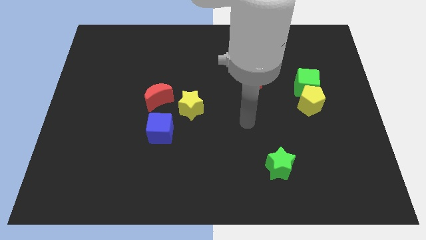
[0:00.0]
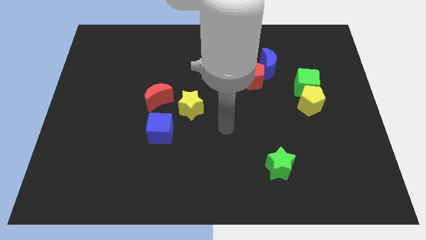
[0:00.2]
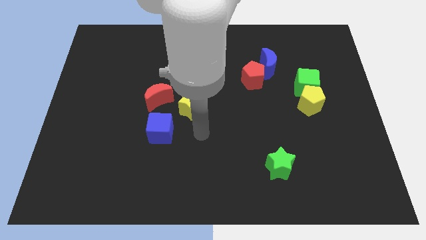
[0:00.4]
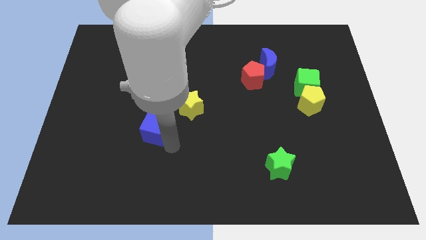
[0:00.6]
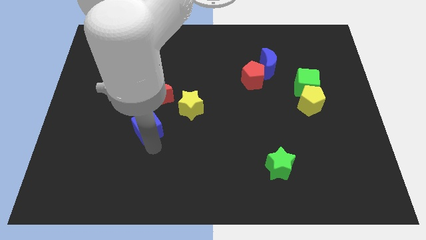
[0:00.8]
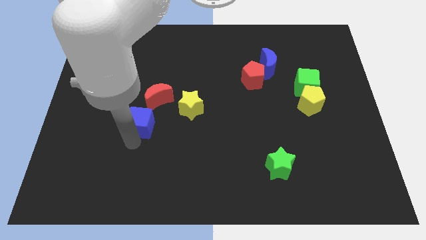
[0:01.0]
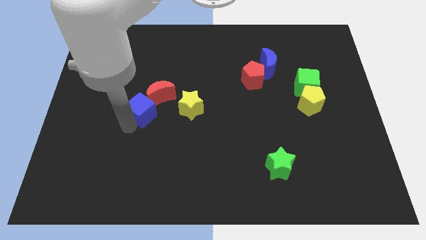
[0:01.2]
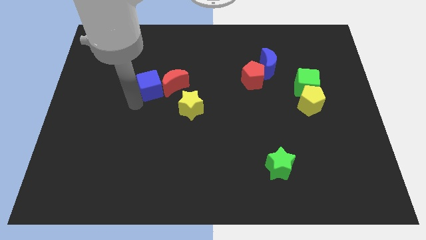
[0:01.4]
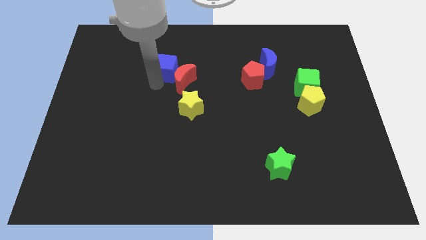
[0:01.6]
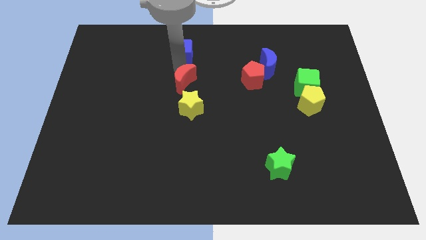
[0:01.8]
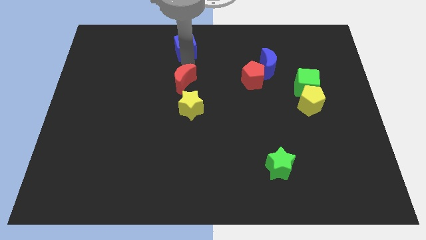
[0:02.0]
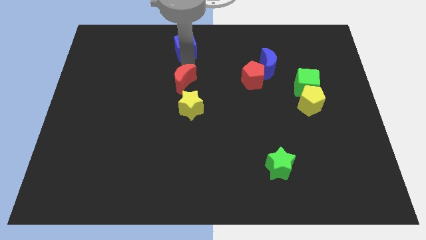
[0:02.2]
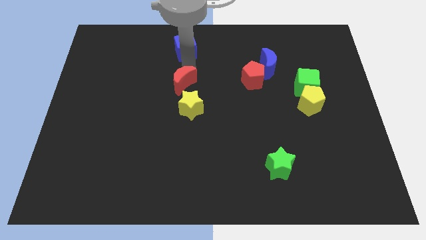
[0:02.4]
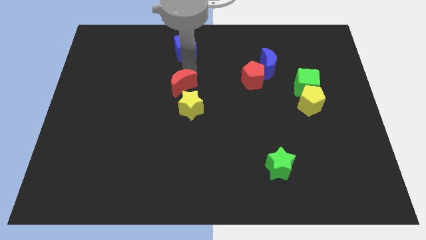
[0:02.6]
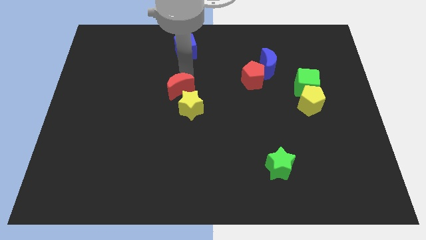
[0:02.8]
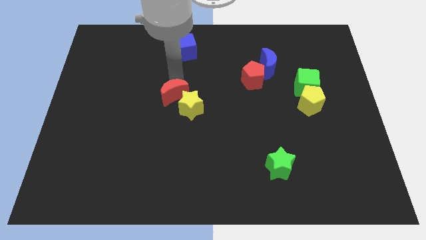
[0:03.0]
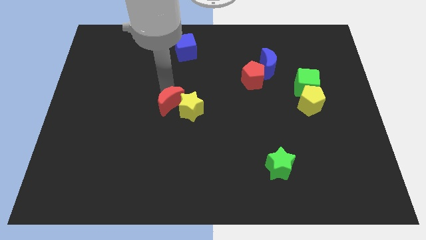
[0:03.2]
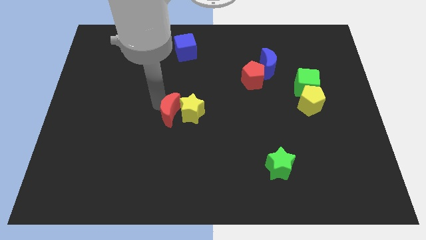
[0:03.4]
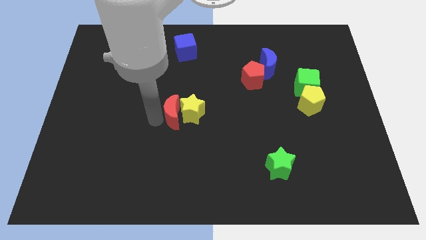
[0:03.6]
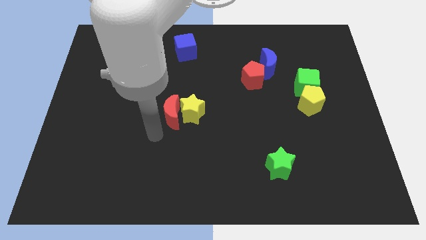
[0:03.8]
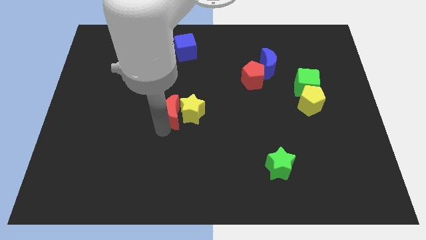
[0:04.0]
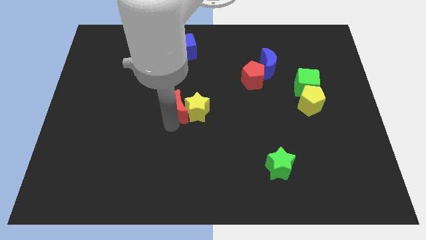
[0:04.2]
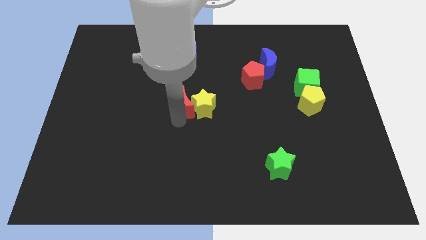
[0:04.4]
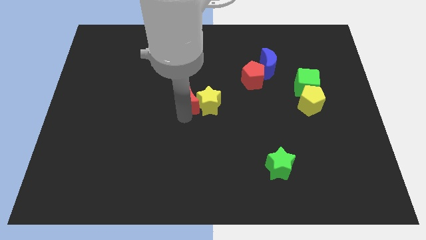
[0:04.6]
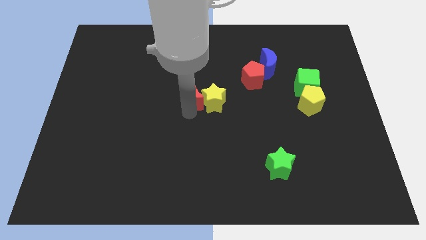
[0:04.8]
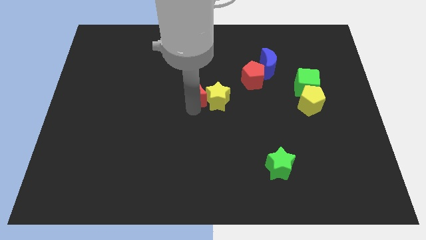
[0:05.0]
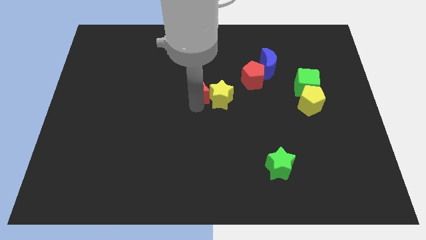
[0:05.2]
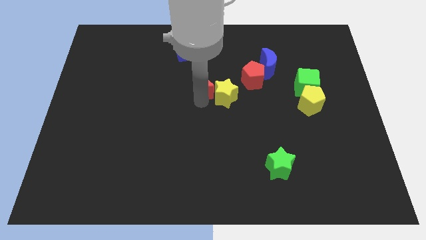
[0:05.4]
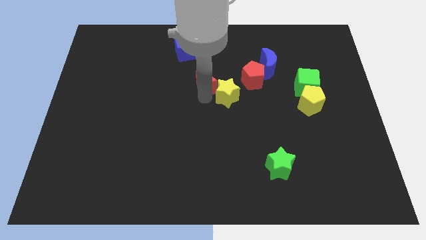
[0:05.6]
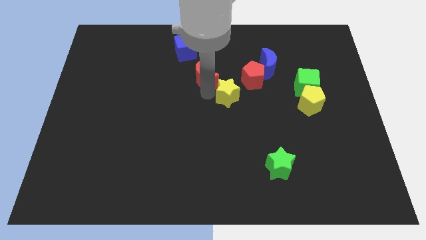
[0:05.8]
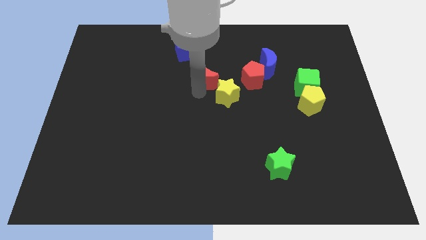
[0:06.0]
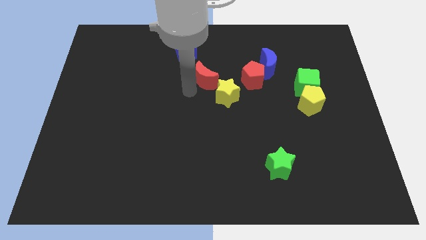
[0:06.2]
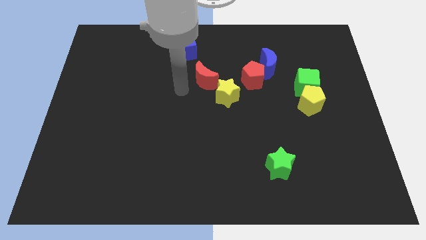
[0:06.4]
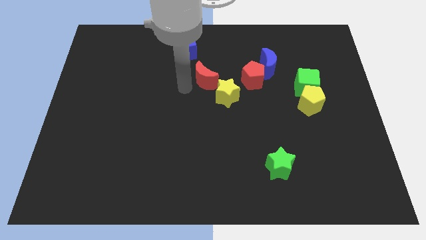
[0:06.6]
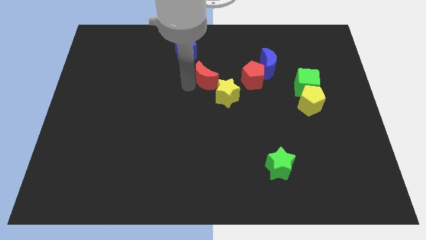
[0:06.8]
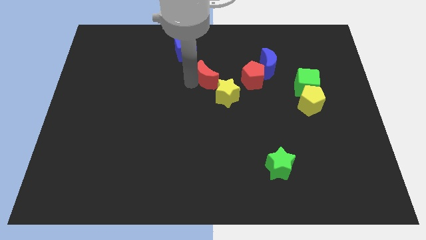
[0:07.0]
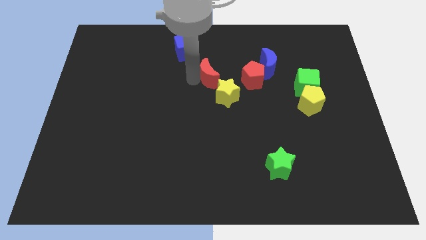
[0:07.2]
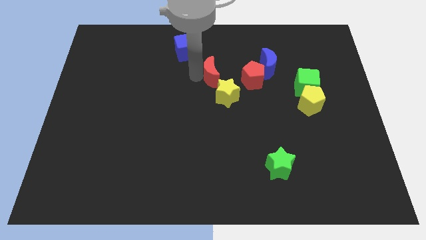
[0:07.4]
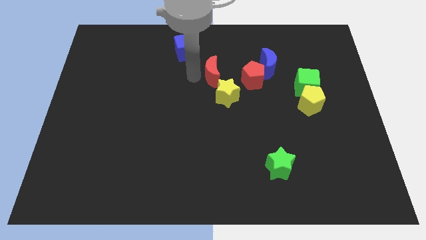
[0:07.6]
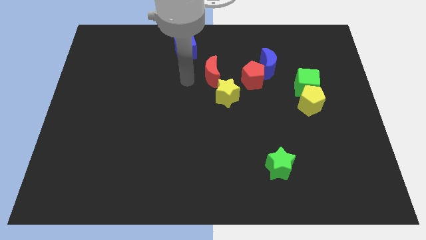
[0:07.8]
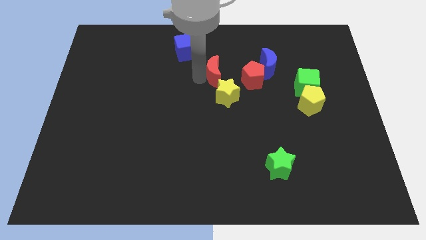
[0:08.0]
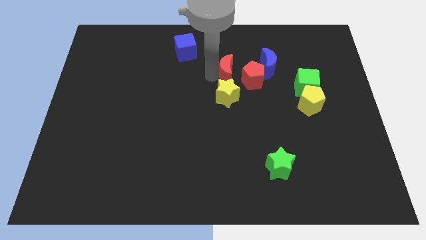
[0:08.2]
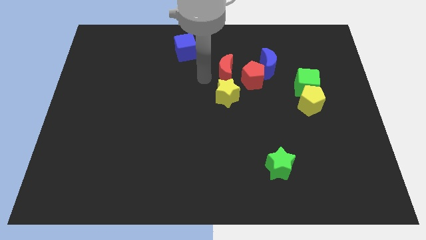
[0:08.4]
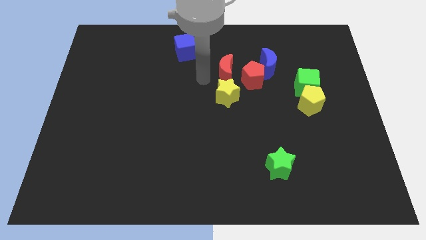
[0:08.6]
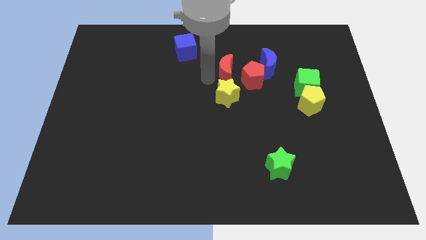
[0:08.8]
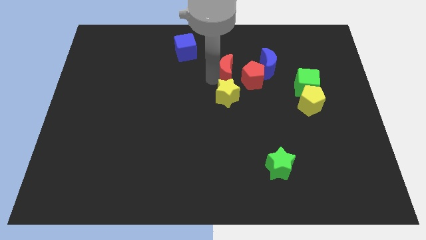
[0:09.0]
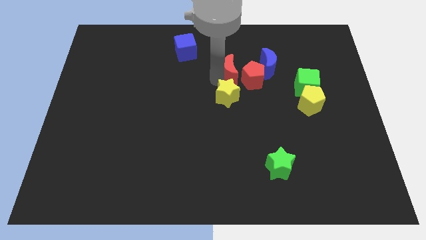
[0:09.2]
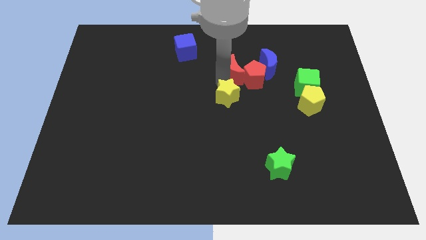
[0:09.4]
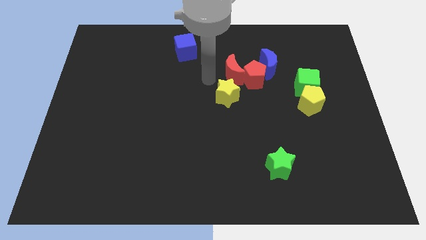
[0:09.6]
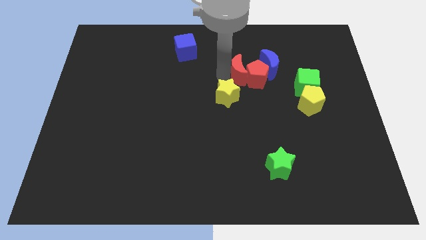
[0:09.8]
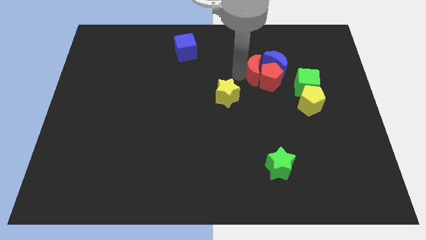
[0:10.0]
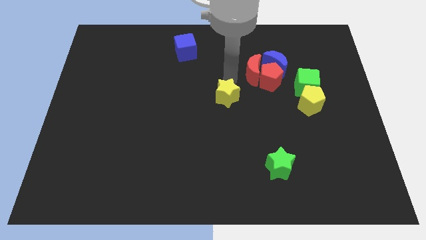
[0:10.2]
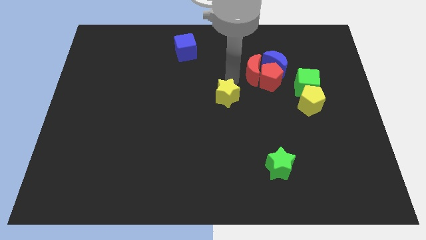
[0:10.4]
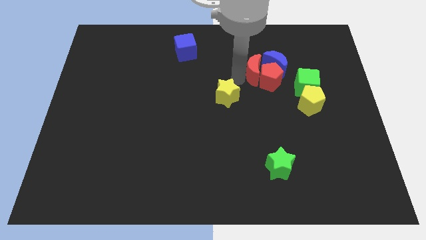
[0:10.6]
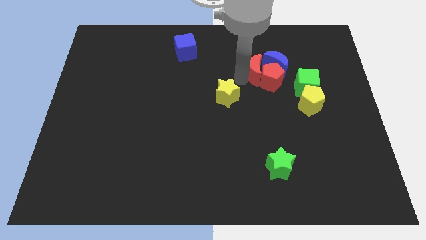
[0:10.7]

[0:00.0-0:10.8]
slide the red moon close to the blue moon

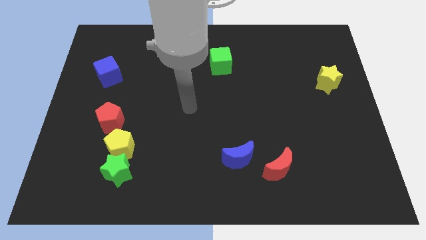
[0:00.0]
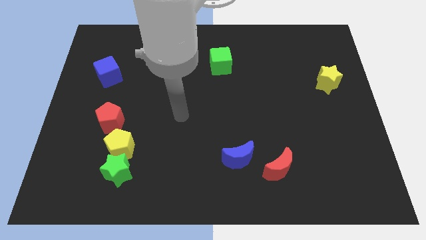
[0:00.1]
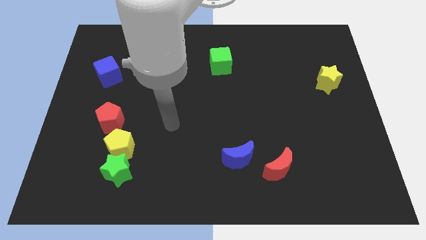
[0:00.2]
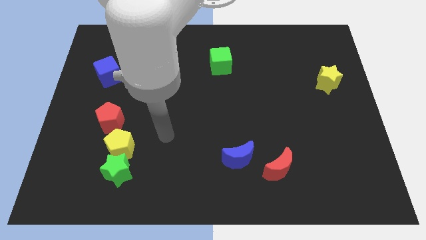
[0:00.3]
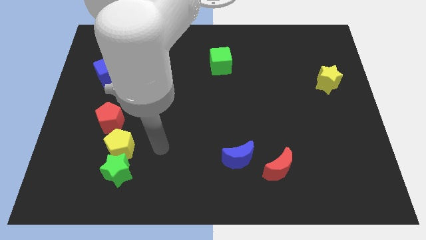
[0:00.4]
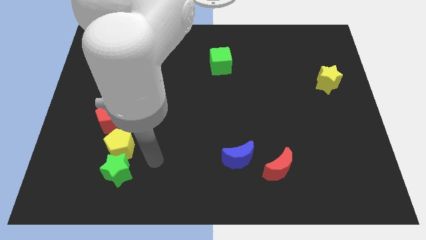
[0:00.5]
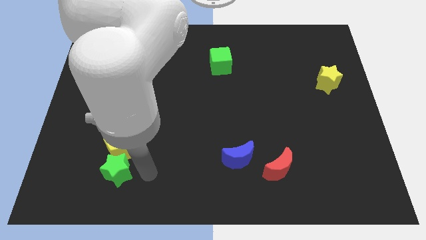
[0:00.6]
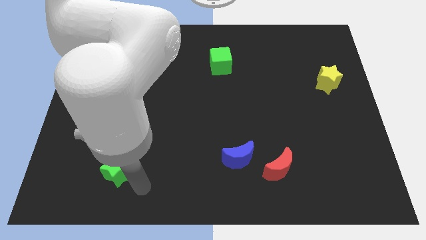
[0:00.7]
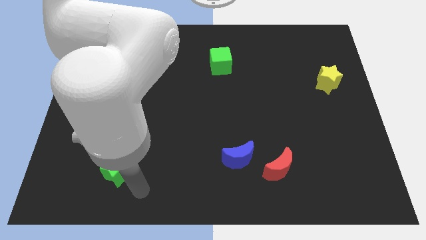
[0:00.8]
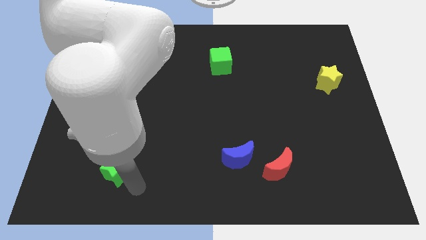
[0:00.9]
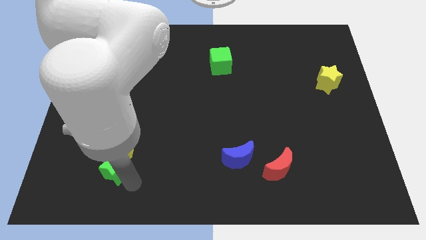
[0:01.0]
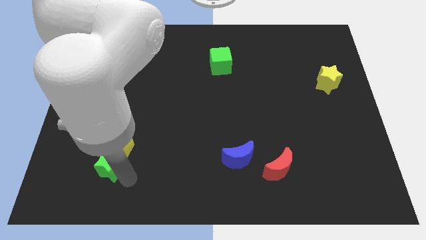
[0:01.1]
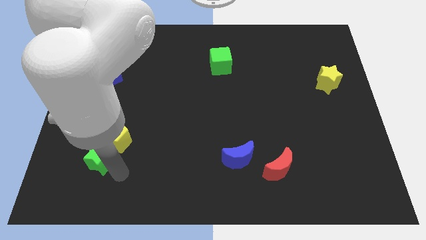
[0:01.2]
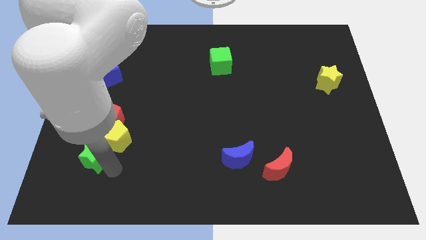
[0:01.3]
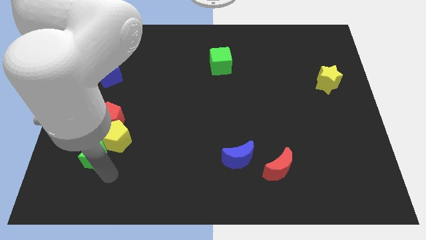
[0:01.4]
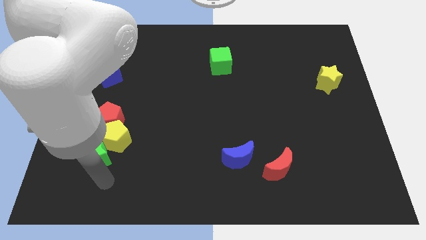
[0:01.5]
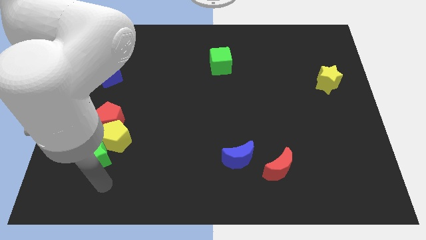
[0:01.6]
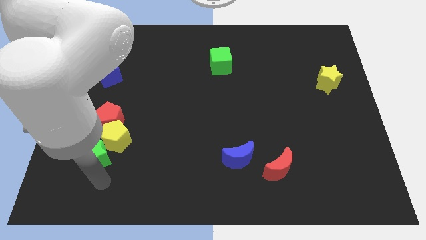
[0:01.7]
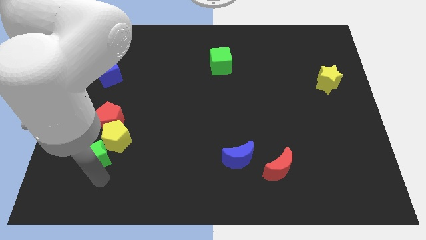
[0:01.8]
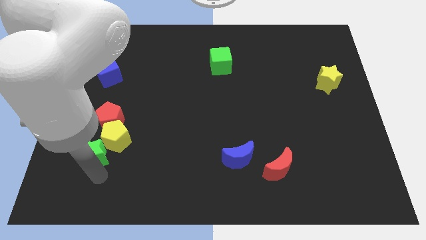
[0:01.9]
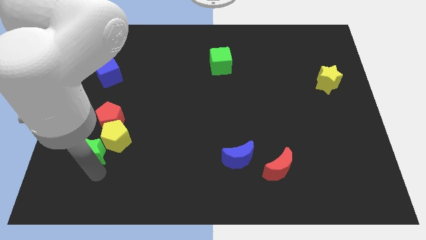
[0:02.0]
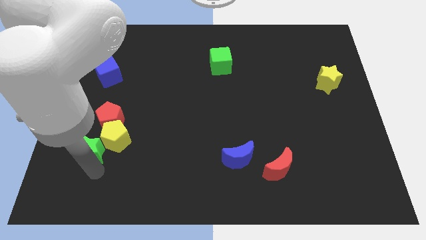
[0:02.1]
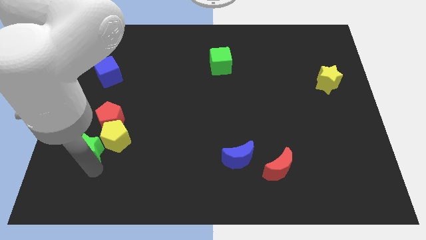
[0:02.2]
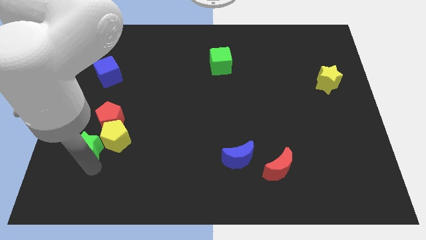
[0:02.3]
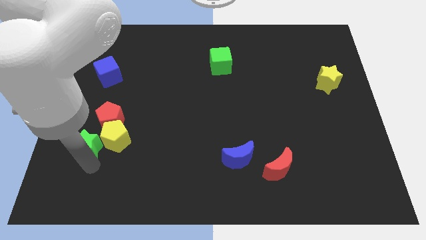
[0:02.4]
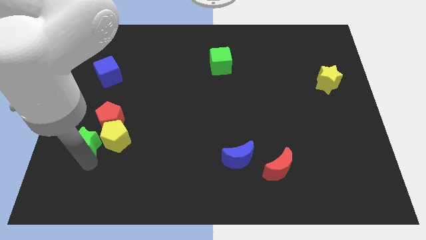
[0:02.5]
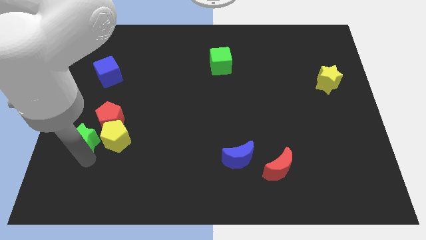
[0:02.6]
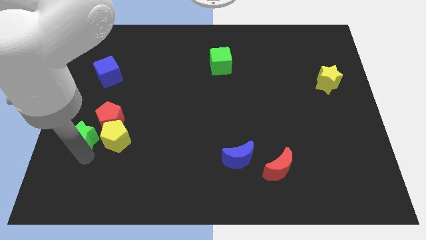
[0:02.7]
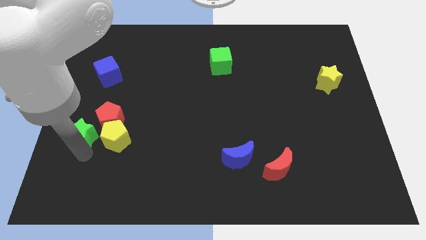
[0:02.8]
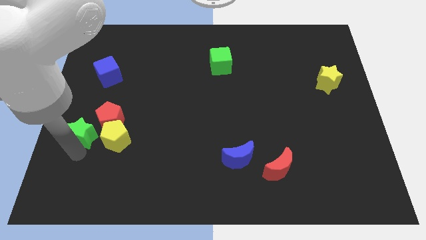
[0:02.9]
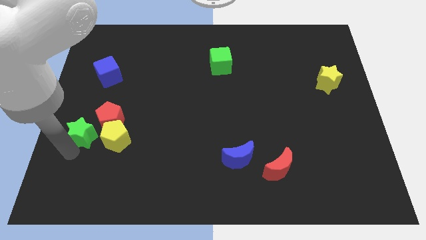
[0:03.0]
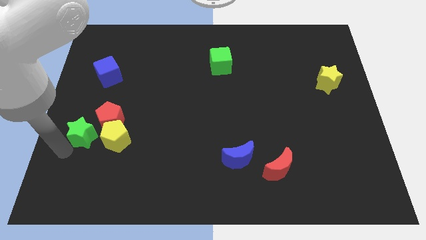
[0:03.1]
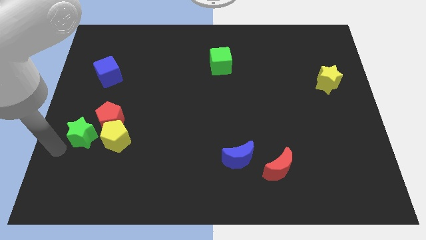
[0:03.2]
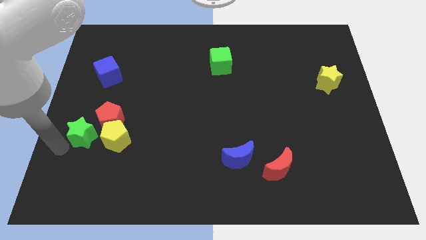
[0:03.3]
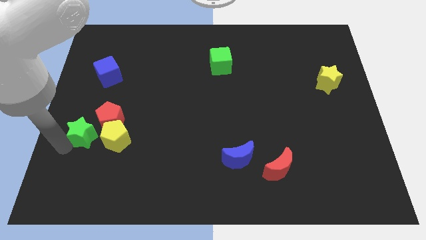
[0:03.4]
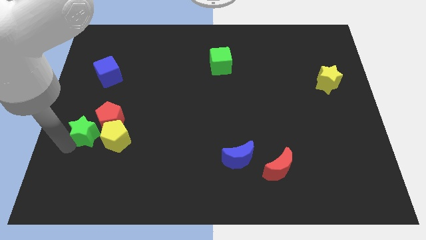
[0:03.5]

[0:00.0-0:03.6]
push the green star towards the red pentagon
